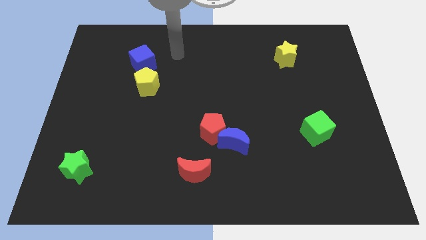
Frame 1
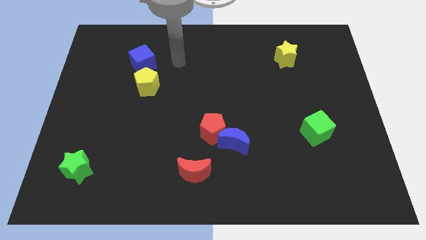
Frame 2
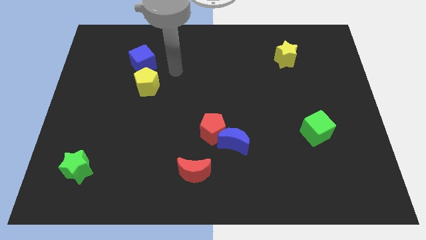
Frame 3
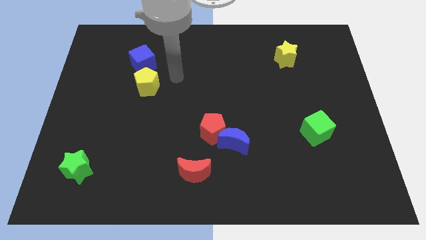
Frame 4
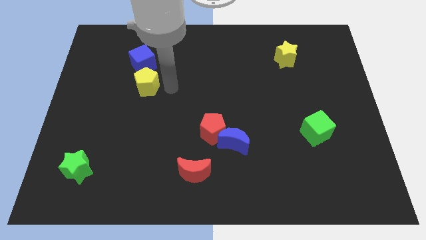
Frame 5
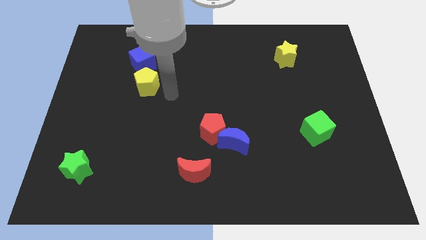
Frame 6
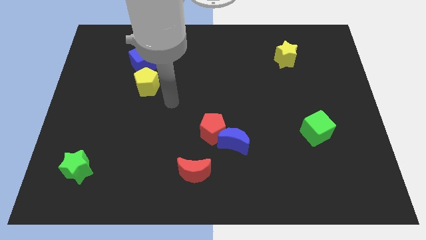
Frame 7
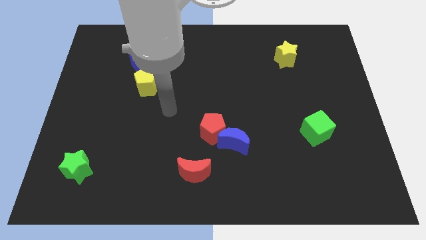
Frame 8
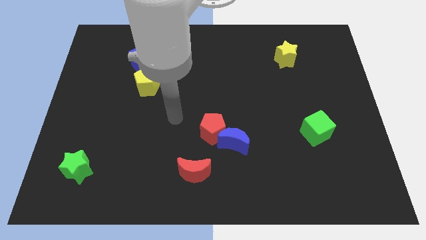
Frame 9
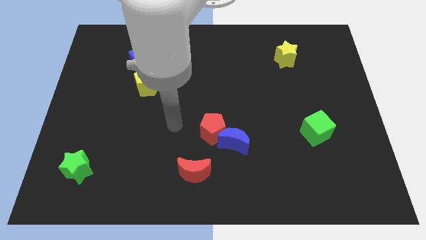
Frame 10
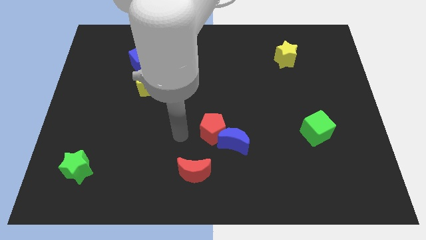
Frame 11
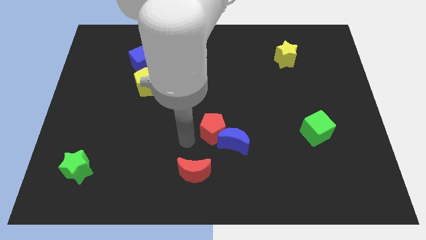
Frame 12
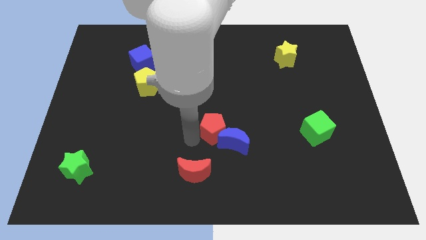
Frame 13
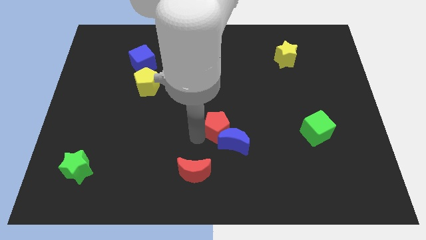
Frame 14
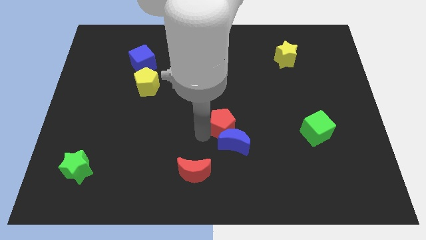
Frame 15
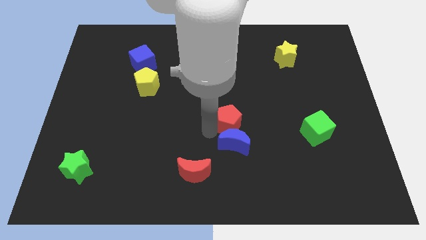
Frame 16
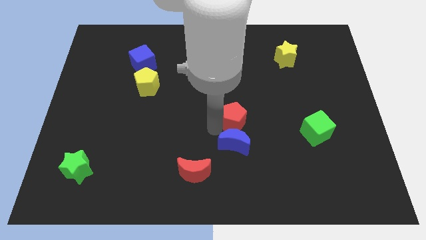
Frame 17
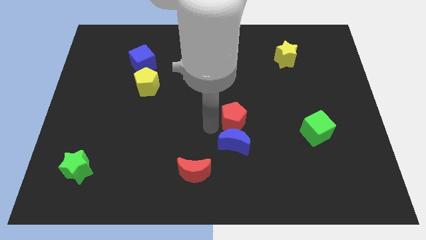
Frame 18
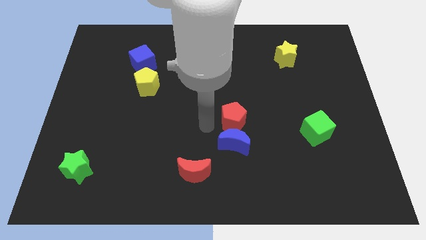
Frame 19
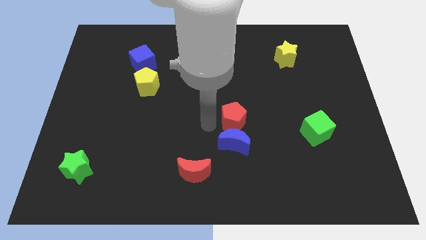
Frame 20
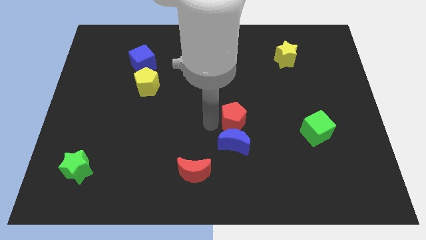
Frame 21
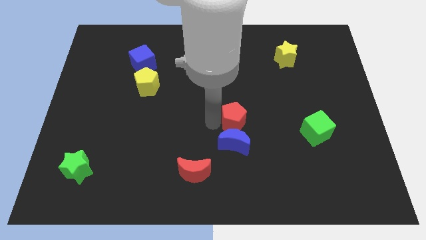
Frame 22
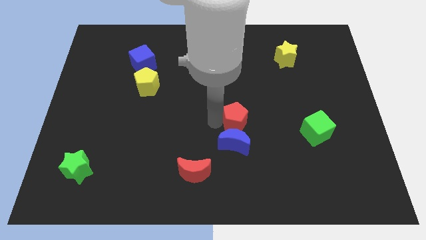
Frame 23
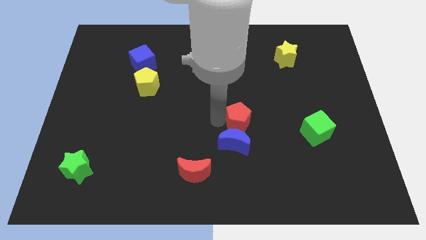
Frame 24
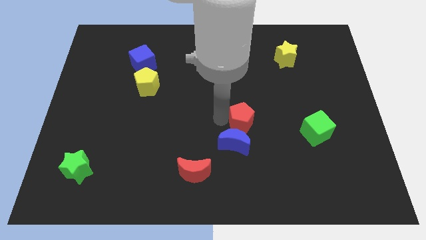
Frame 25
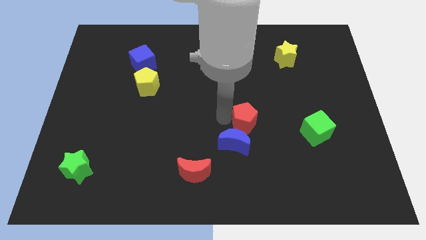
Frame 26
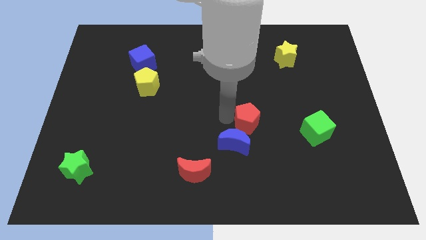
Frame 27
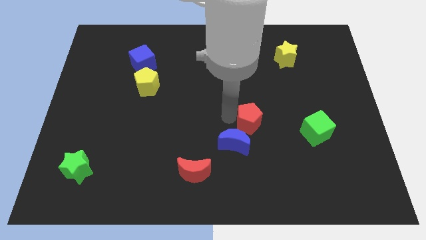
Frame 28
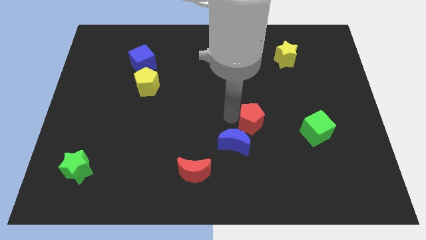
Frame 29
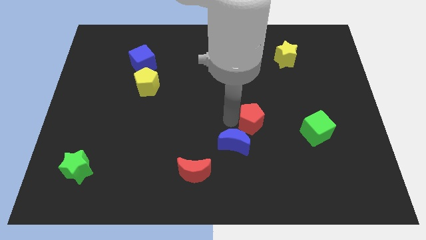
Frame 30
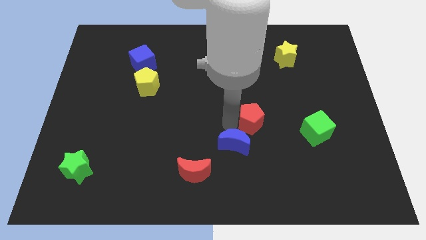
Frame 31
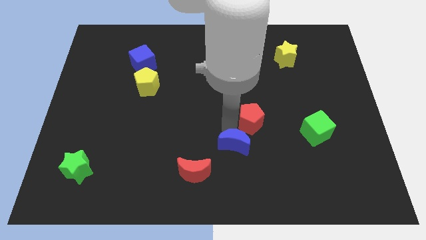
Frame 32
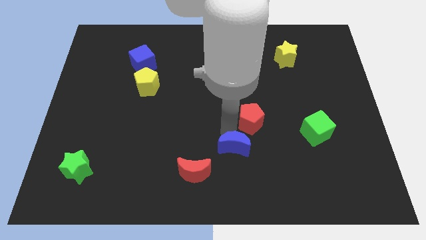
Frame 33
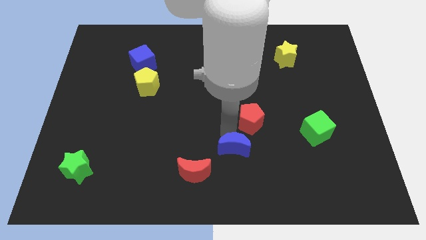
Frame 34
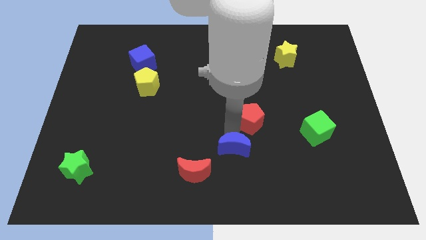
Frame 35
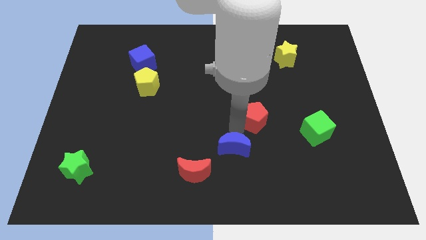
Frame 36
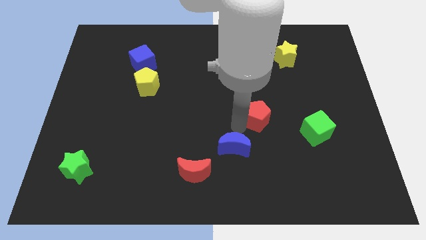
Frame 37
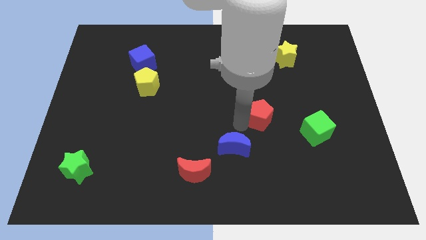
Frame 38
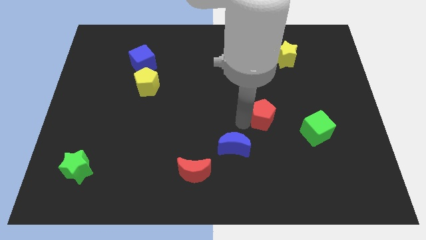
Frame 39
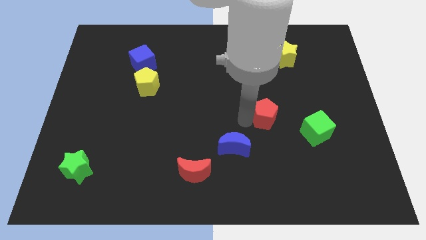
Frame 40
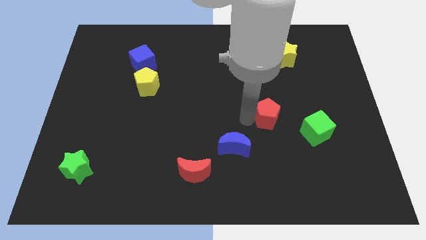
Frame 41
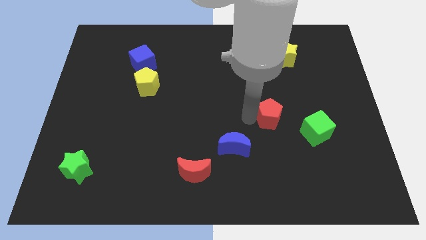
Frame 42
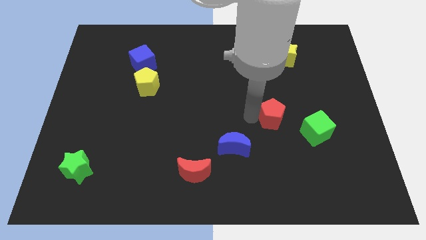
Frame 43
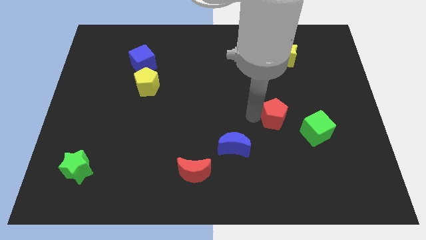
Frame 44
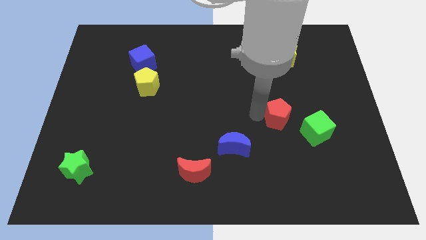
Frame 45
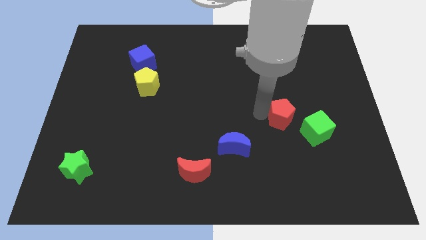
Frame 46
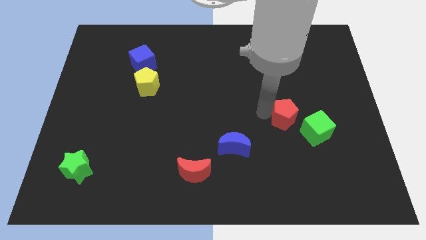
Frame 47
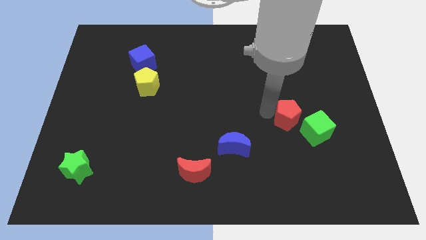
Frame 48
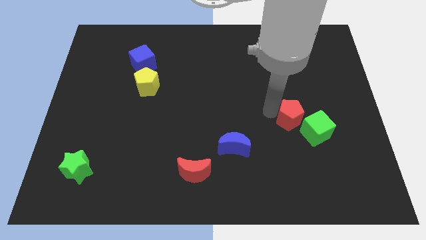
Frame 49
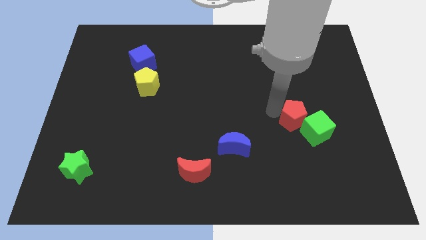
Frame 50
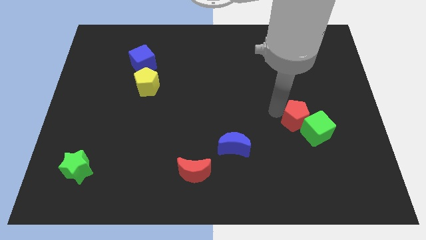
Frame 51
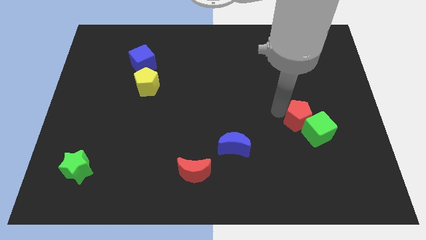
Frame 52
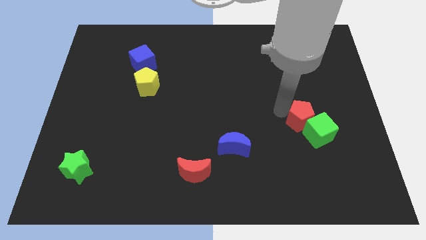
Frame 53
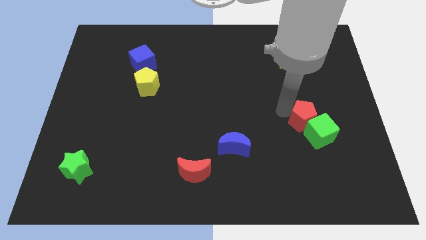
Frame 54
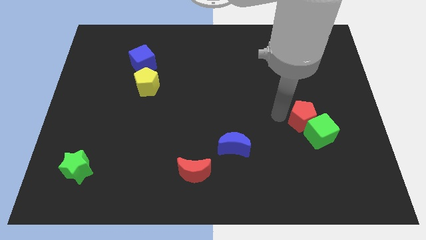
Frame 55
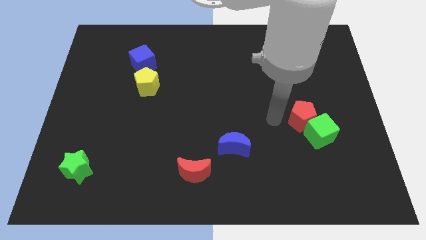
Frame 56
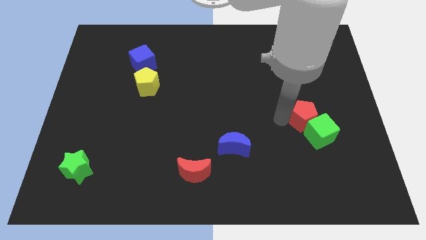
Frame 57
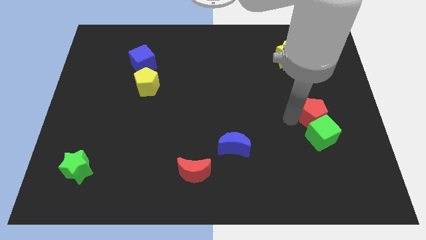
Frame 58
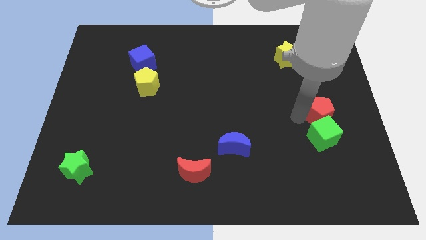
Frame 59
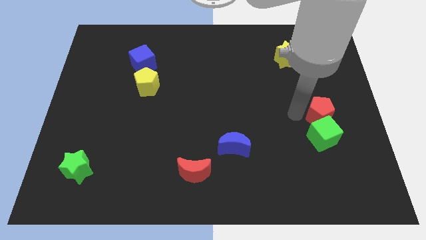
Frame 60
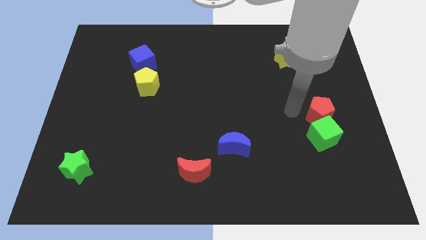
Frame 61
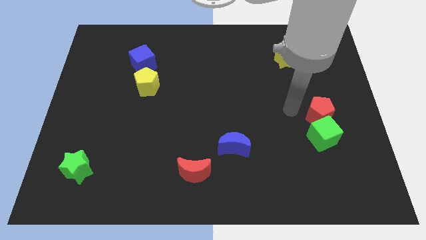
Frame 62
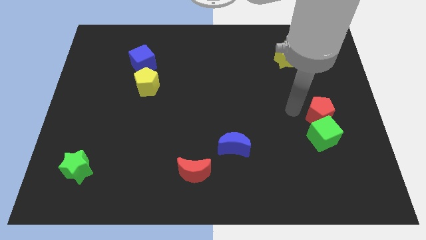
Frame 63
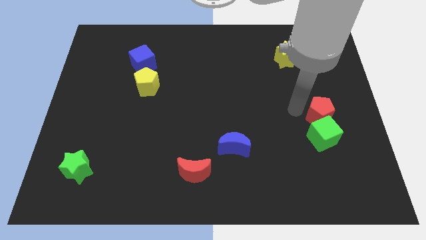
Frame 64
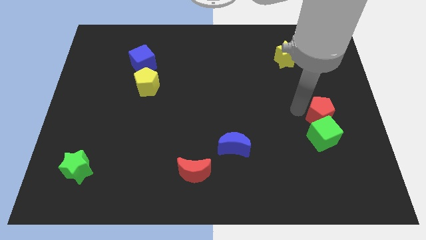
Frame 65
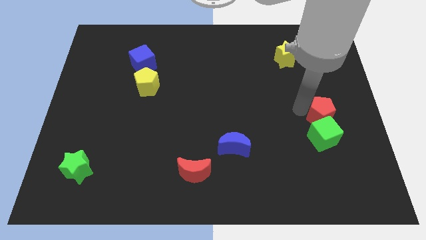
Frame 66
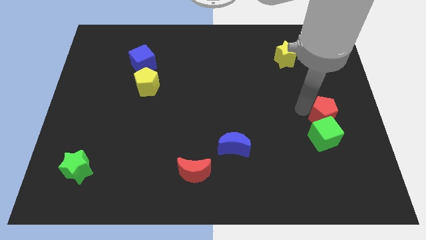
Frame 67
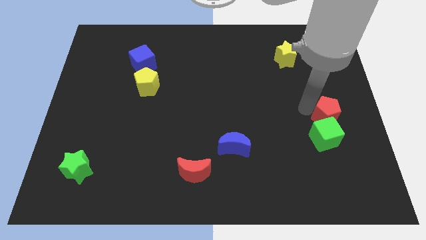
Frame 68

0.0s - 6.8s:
push the red pentagon to the right side of the board
